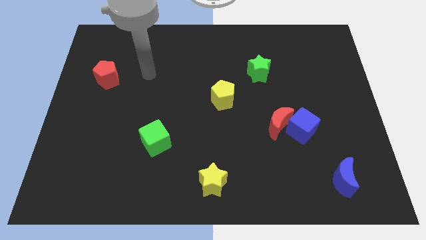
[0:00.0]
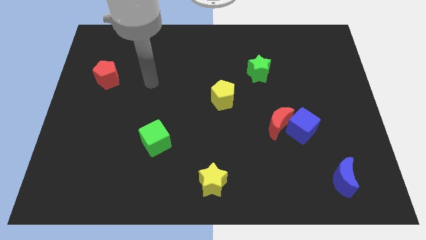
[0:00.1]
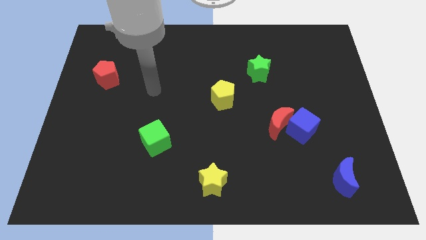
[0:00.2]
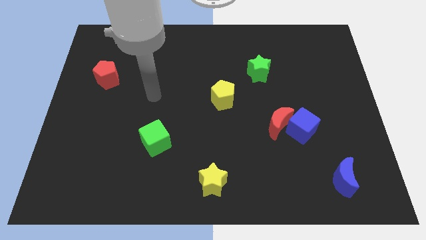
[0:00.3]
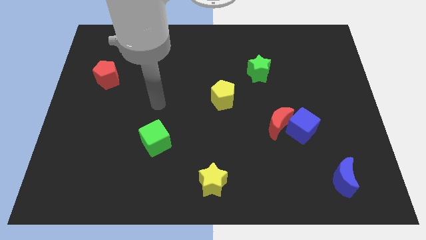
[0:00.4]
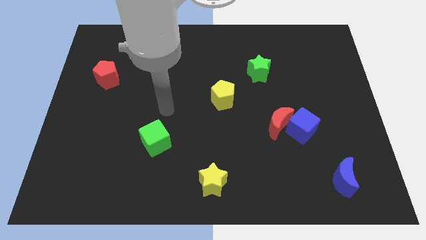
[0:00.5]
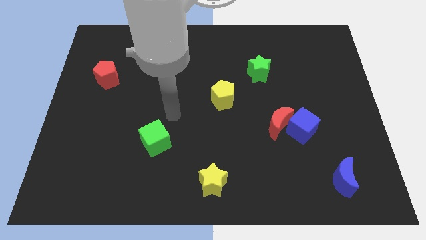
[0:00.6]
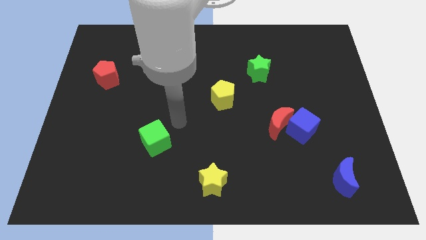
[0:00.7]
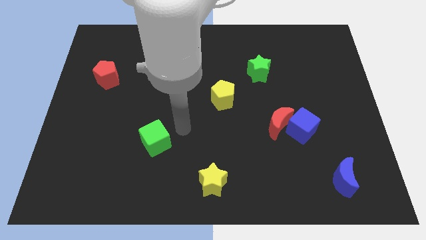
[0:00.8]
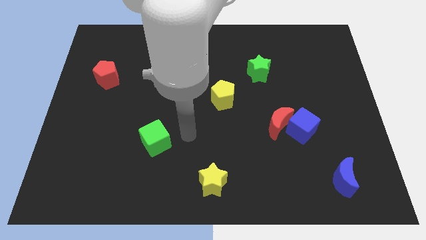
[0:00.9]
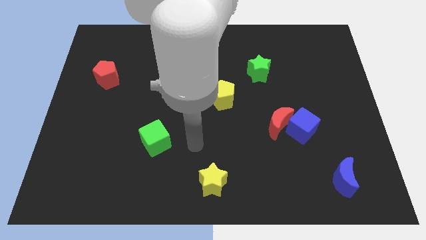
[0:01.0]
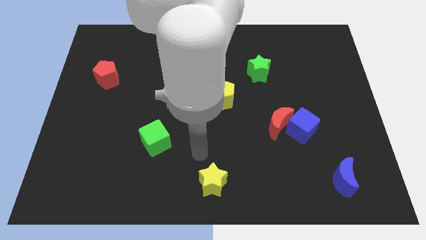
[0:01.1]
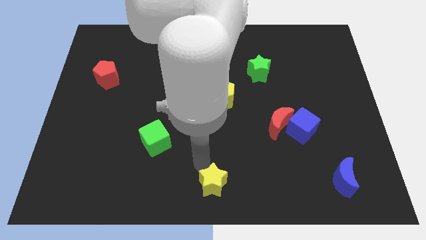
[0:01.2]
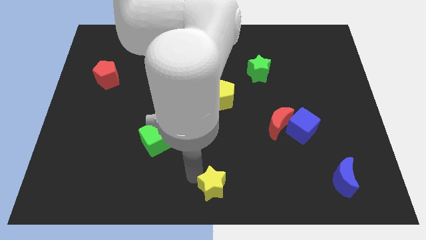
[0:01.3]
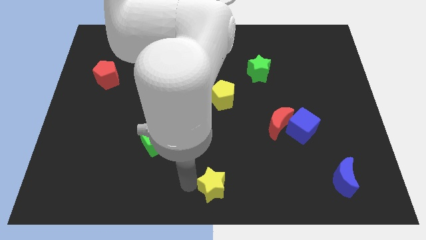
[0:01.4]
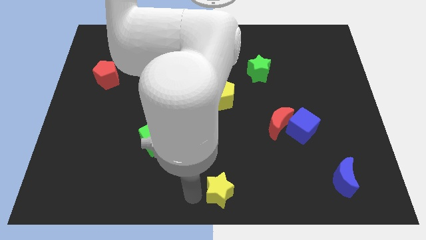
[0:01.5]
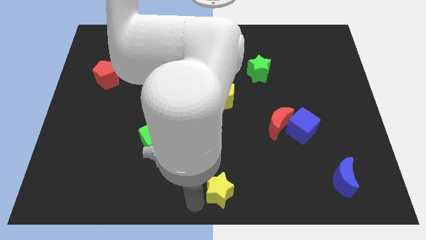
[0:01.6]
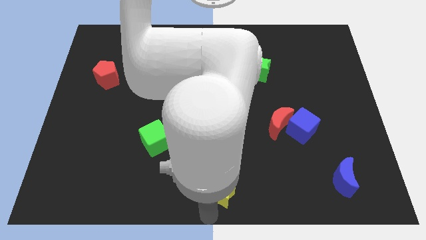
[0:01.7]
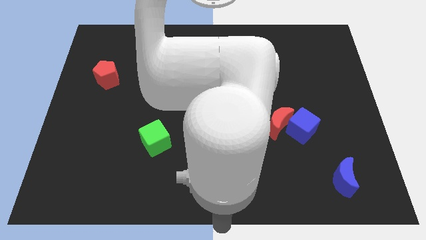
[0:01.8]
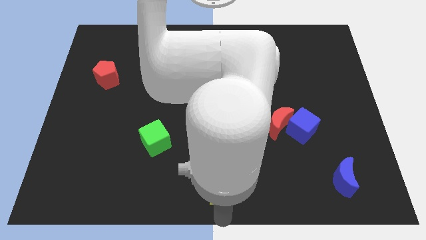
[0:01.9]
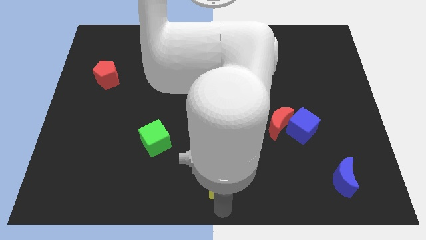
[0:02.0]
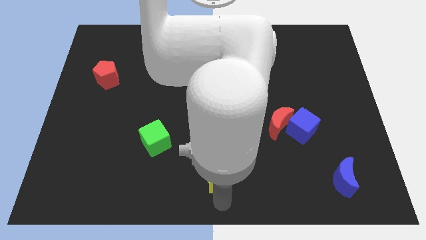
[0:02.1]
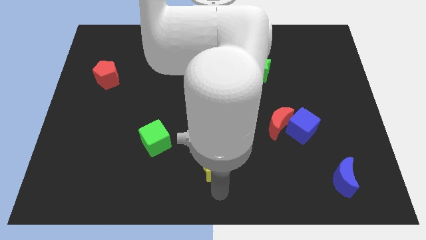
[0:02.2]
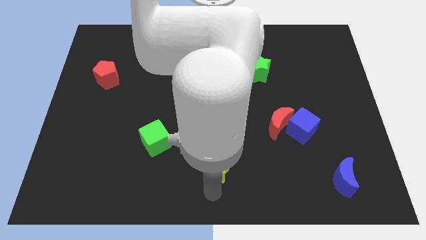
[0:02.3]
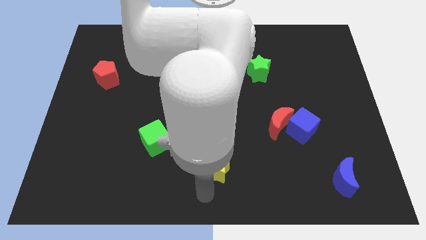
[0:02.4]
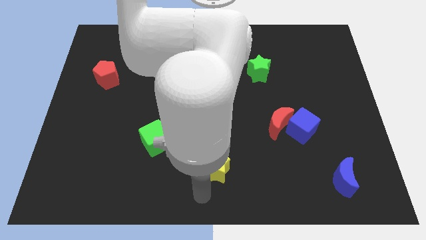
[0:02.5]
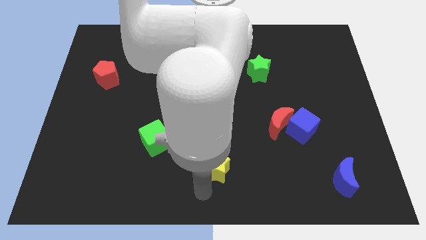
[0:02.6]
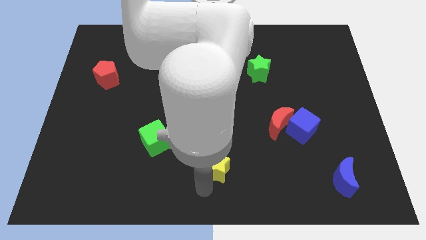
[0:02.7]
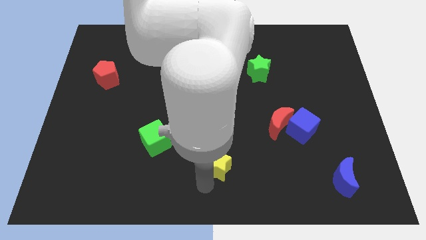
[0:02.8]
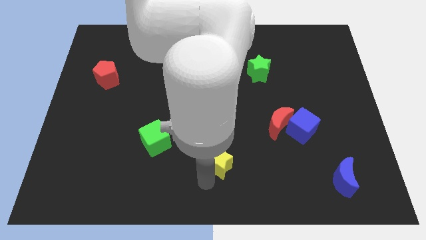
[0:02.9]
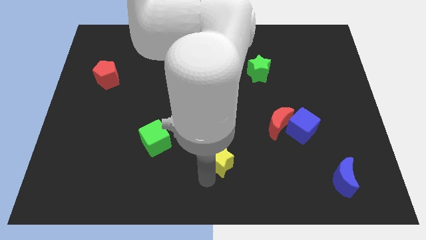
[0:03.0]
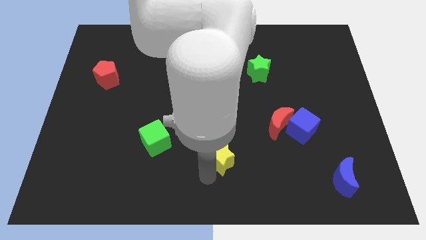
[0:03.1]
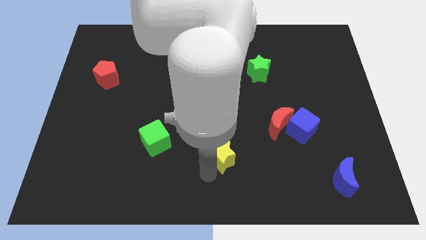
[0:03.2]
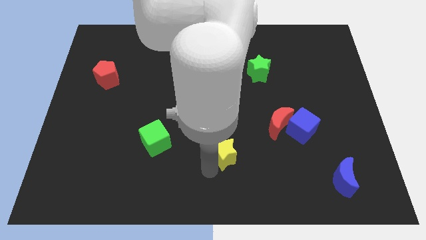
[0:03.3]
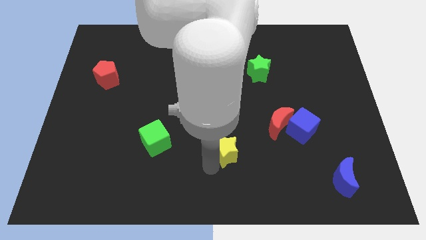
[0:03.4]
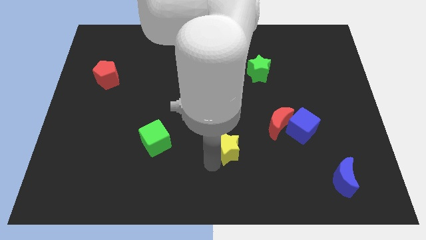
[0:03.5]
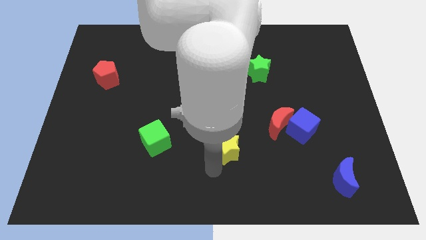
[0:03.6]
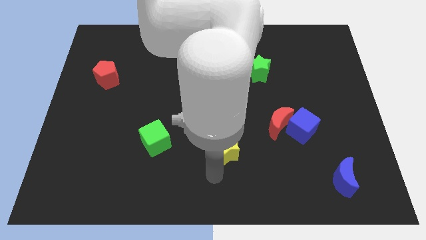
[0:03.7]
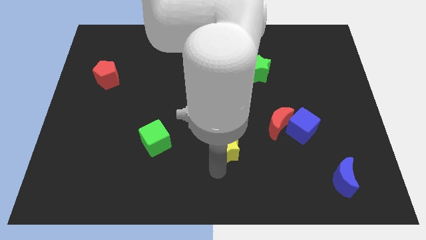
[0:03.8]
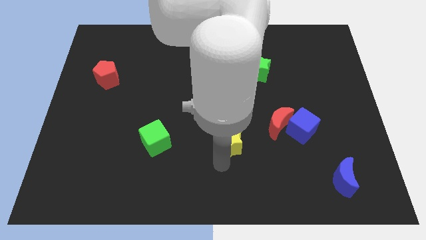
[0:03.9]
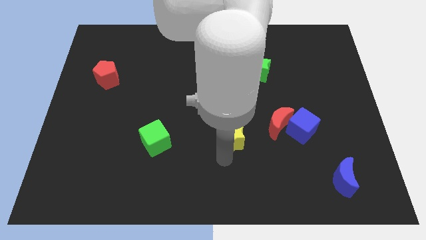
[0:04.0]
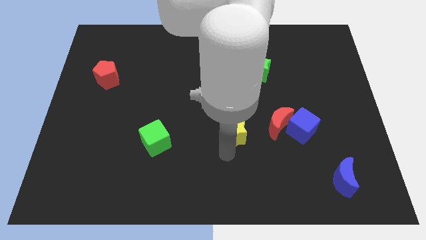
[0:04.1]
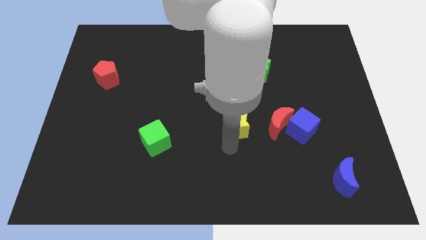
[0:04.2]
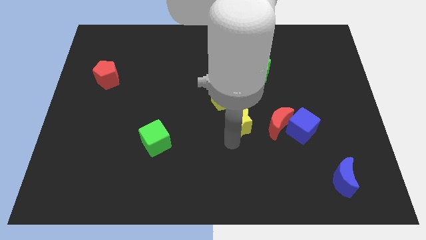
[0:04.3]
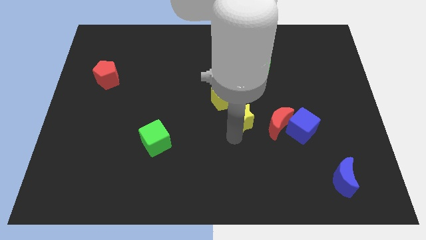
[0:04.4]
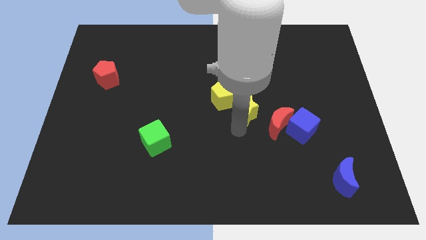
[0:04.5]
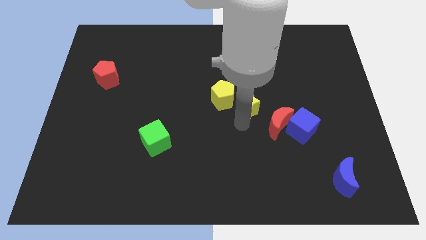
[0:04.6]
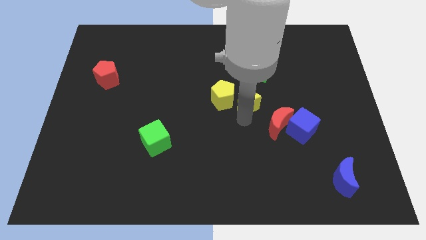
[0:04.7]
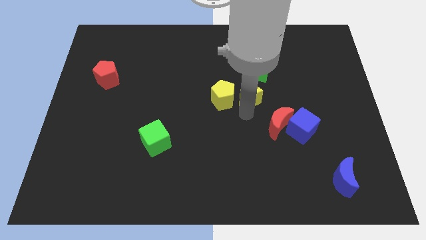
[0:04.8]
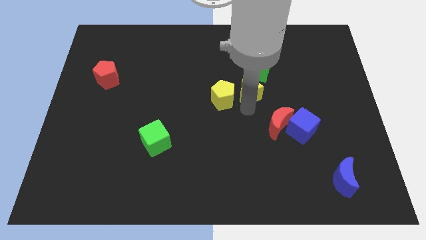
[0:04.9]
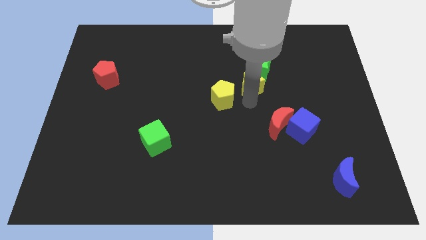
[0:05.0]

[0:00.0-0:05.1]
slide the yellow star close to the green star

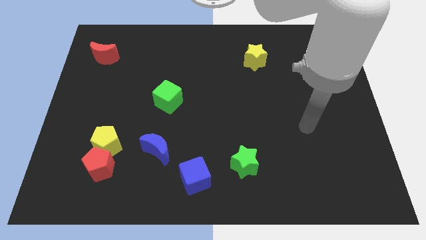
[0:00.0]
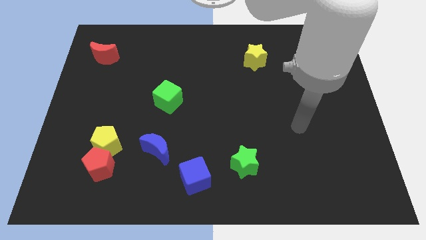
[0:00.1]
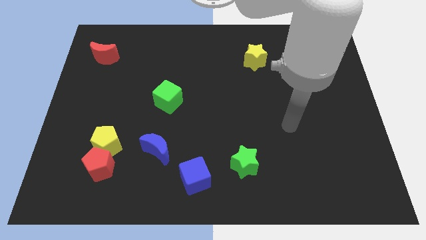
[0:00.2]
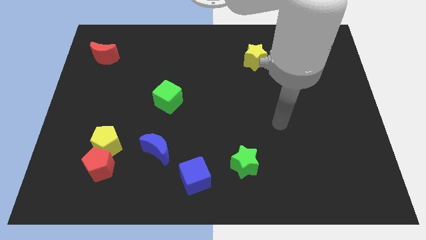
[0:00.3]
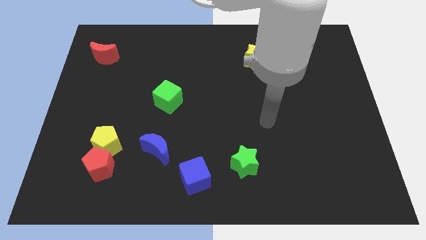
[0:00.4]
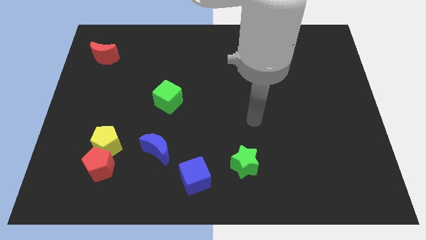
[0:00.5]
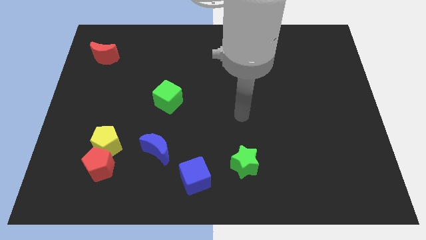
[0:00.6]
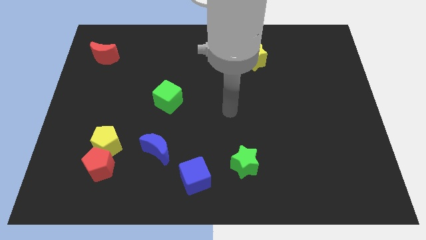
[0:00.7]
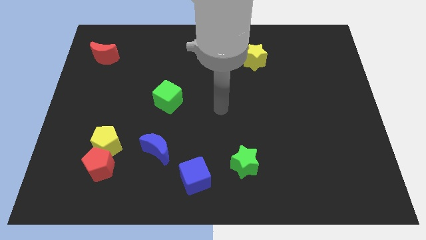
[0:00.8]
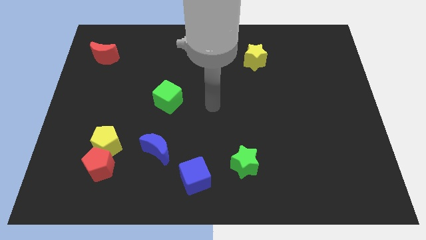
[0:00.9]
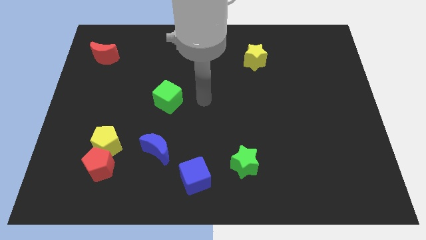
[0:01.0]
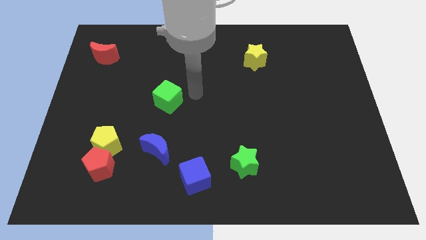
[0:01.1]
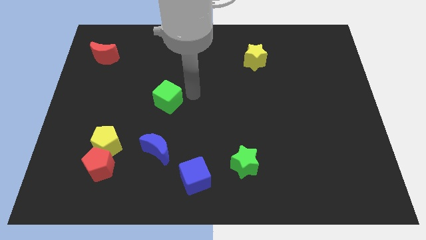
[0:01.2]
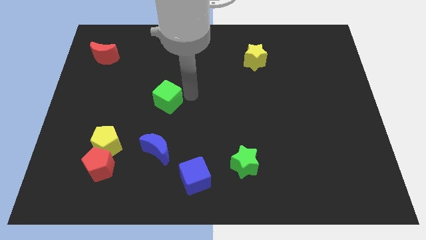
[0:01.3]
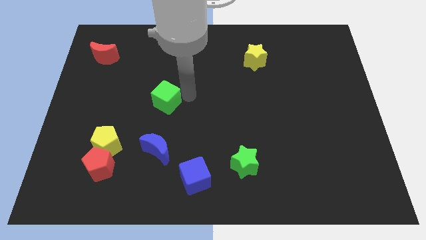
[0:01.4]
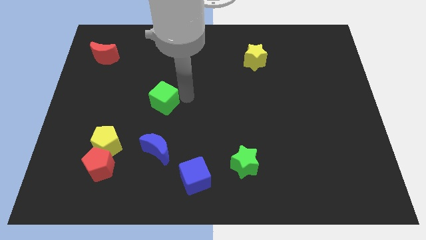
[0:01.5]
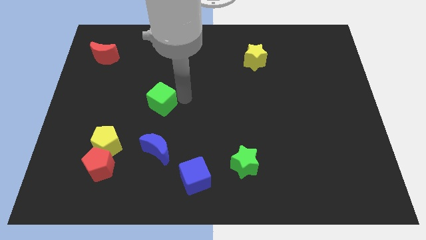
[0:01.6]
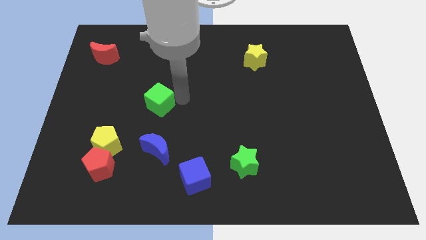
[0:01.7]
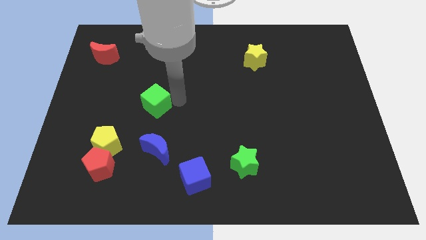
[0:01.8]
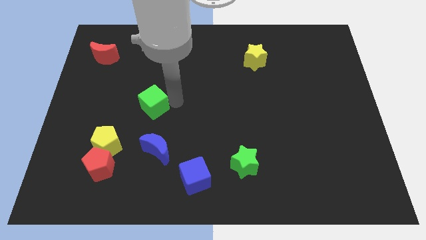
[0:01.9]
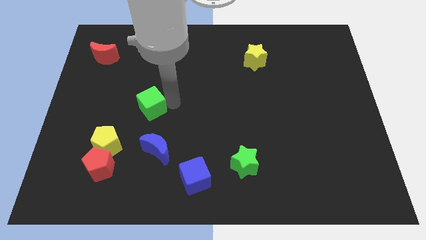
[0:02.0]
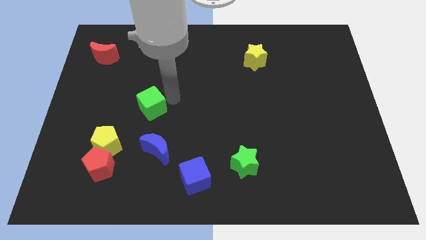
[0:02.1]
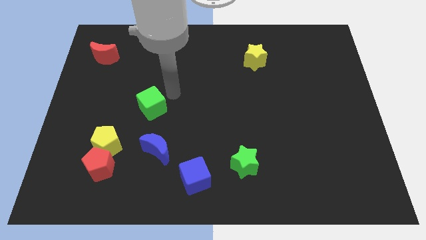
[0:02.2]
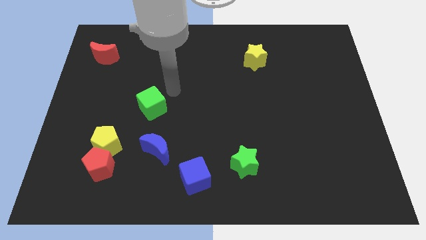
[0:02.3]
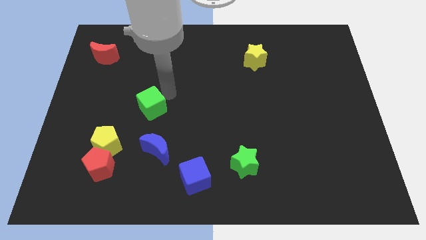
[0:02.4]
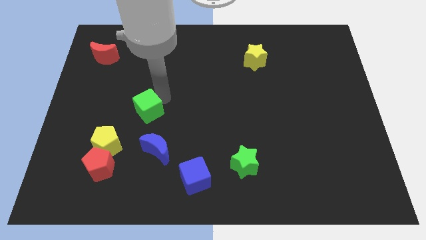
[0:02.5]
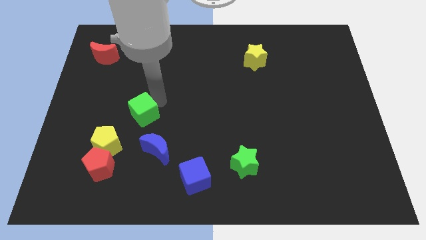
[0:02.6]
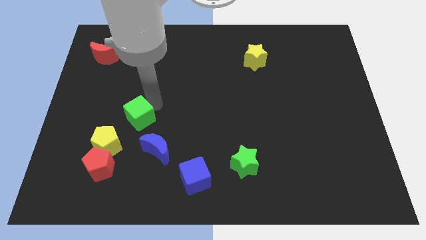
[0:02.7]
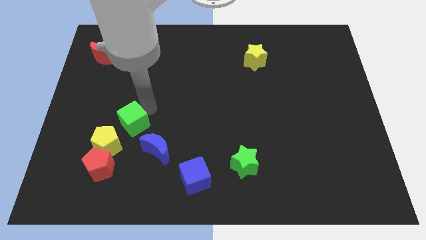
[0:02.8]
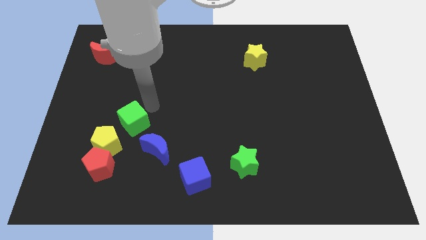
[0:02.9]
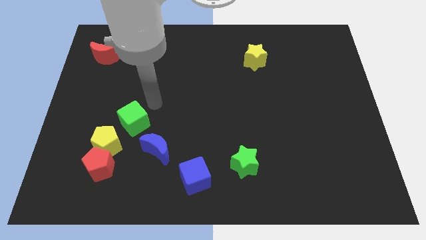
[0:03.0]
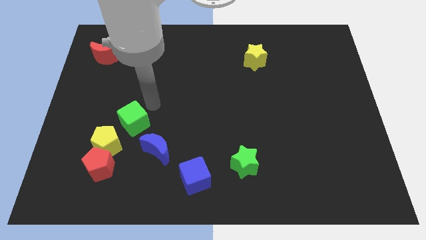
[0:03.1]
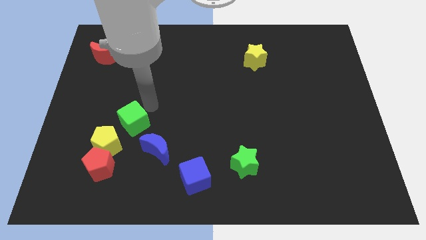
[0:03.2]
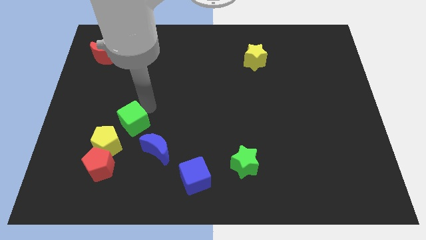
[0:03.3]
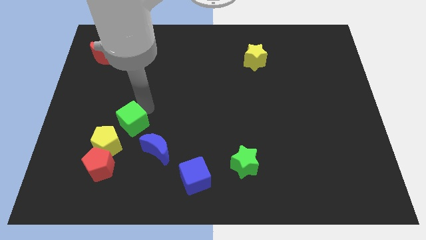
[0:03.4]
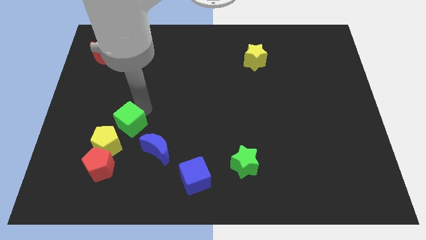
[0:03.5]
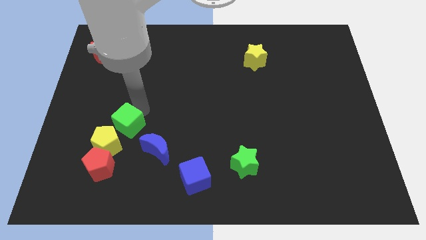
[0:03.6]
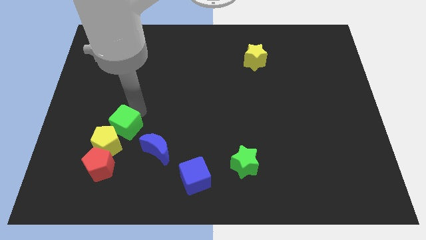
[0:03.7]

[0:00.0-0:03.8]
push the green cube to the yellow pentagon
